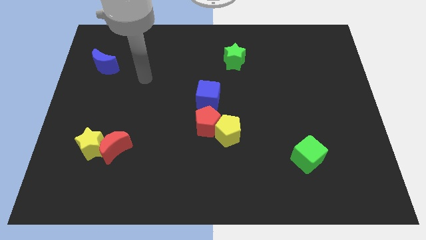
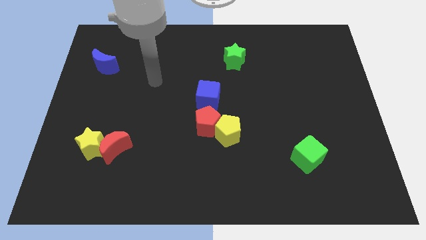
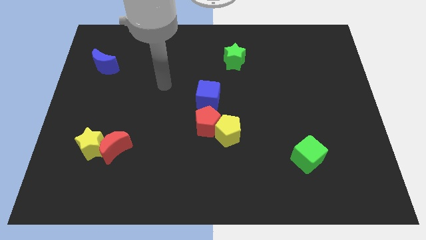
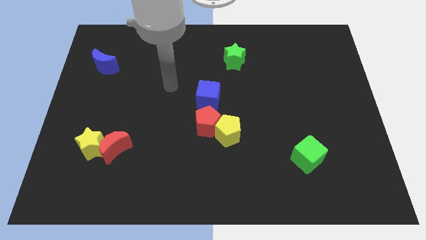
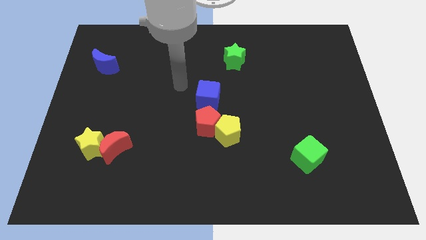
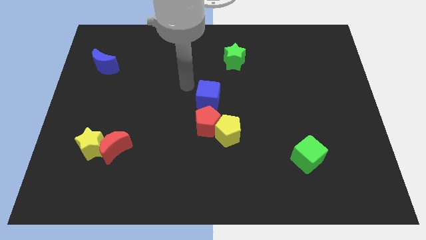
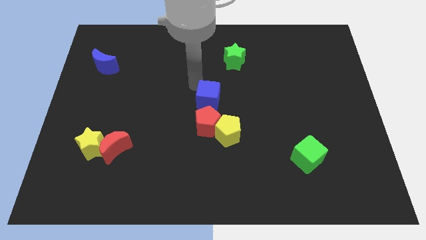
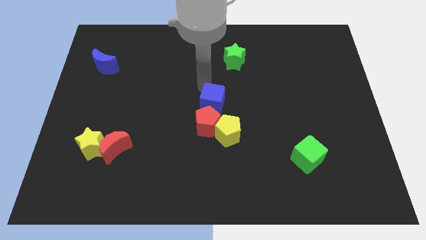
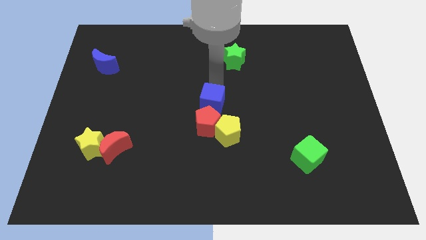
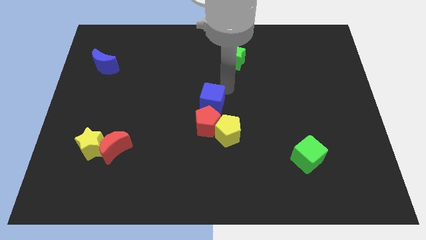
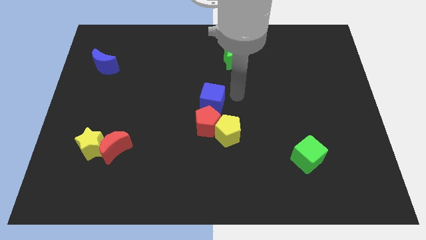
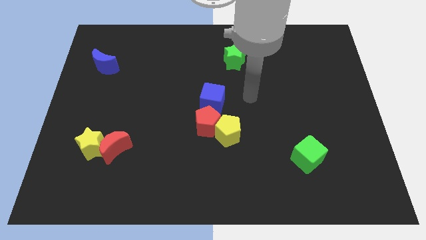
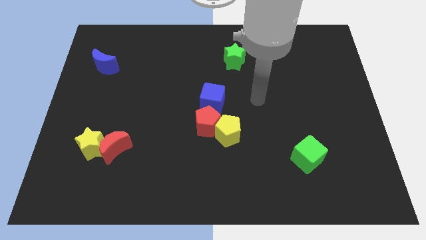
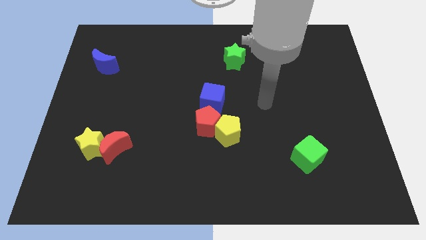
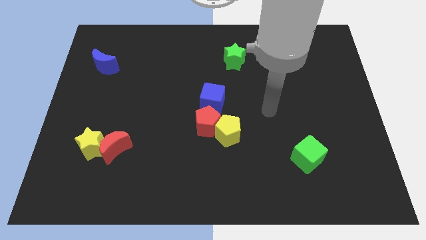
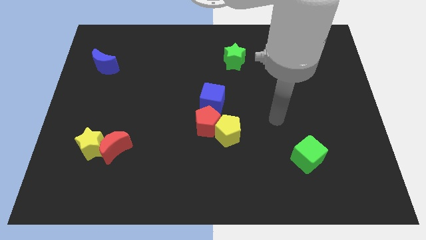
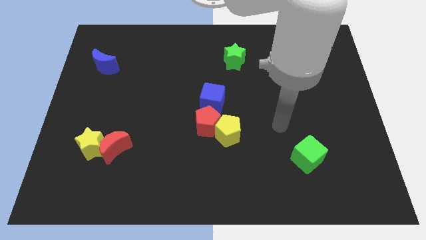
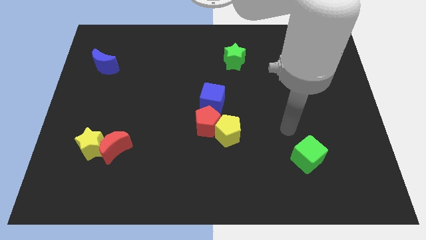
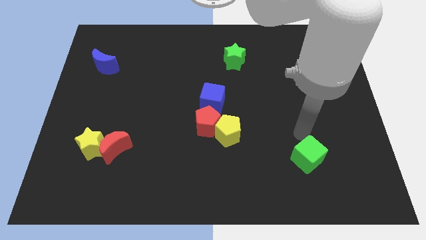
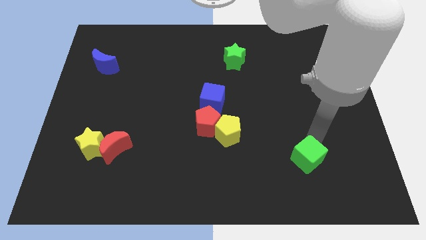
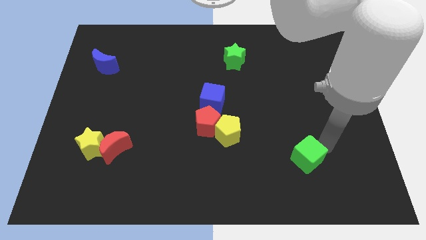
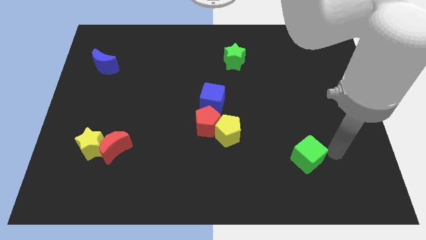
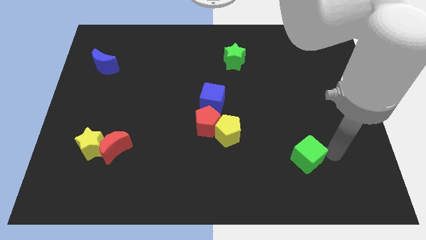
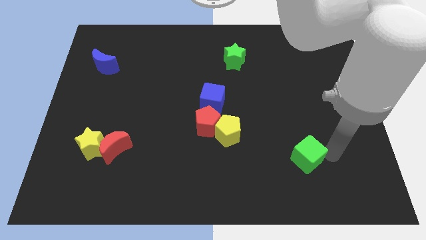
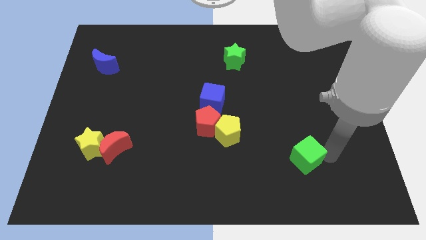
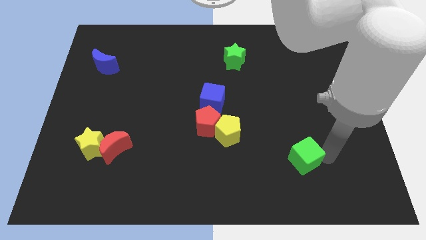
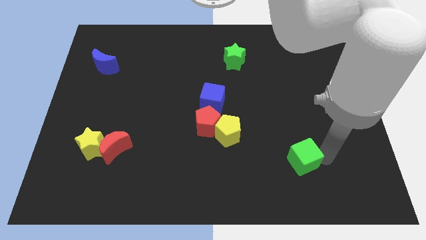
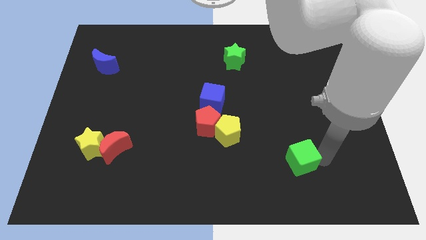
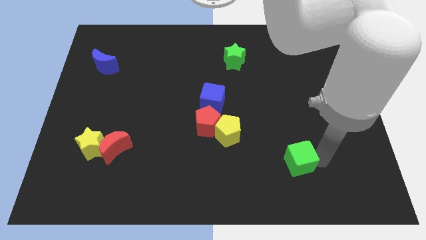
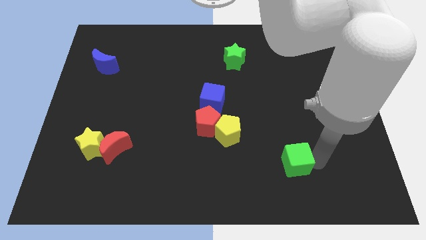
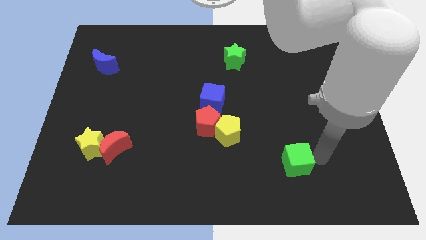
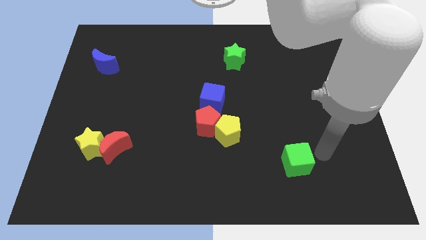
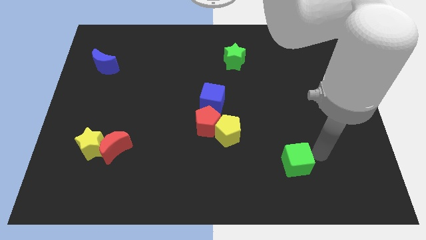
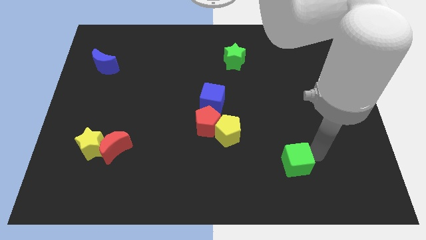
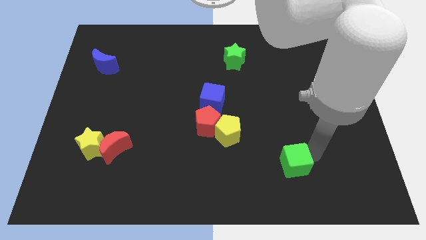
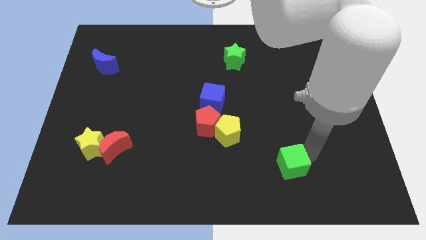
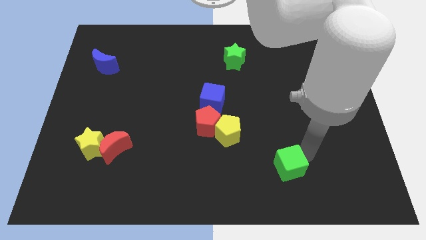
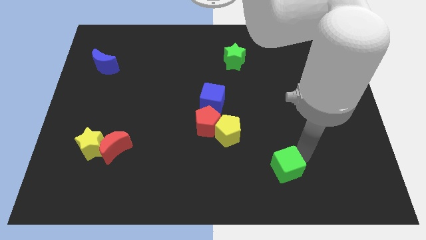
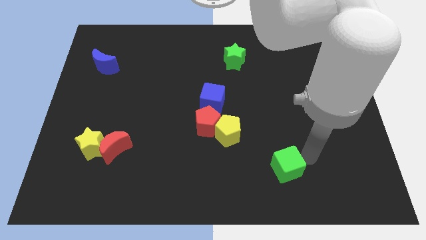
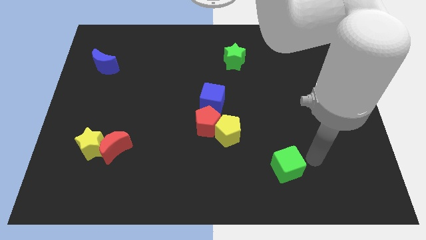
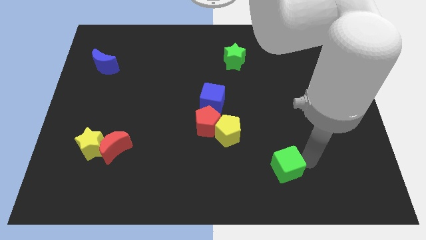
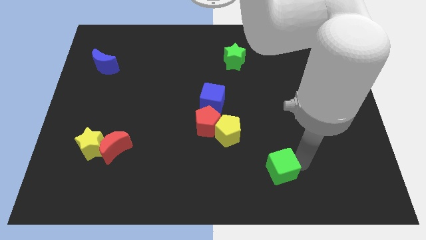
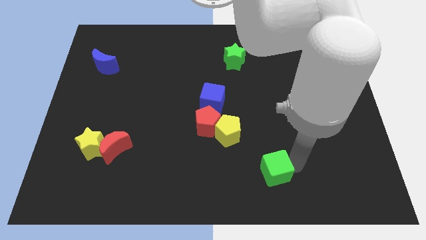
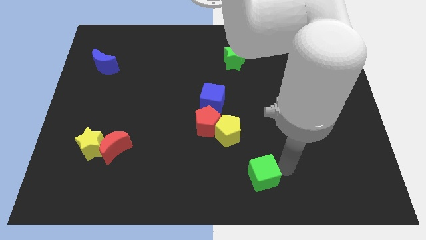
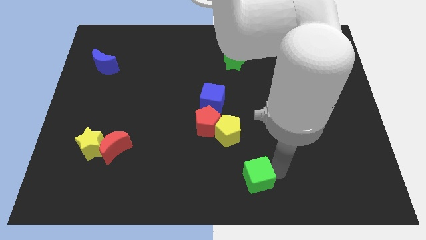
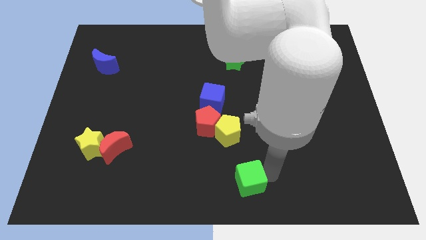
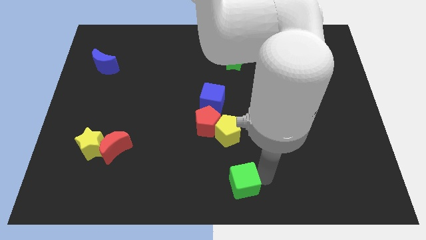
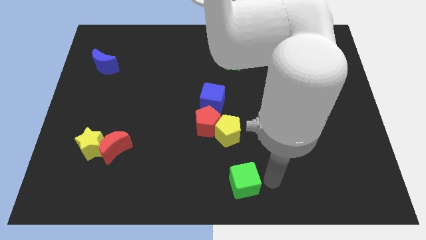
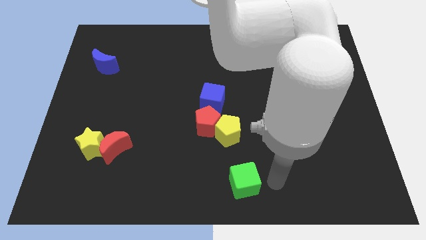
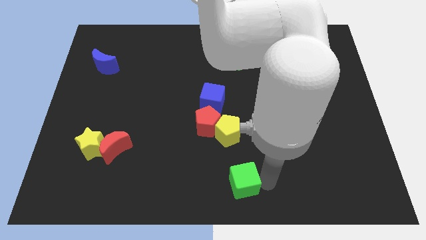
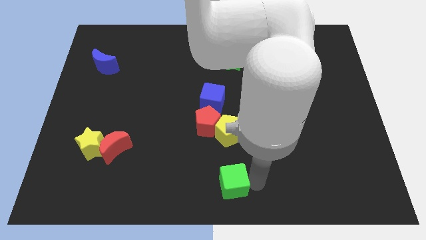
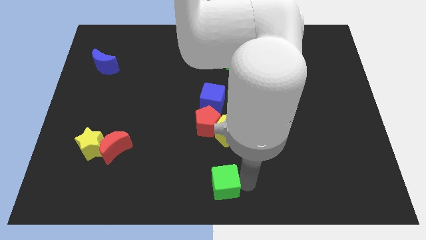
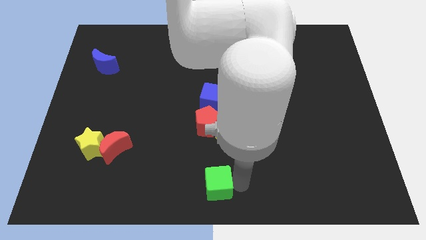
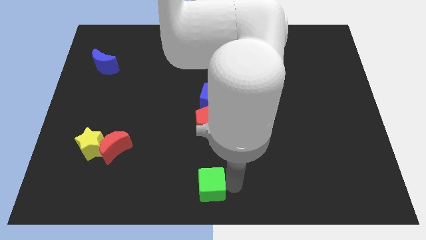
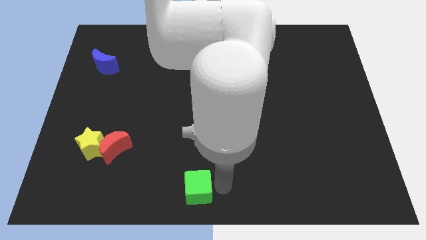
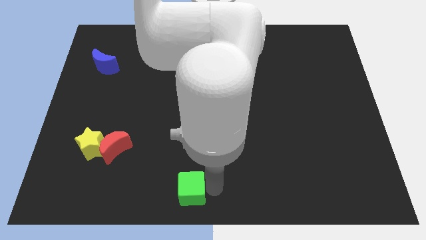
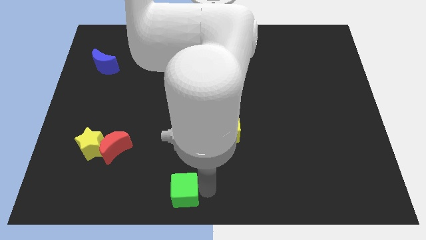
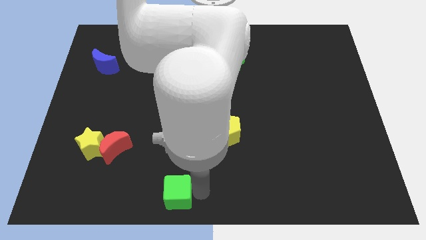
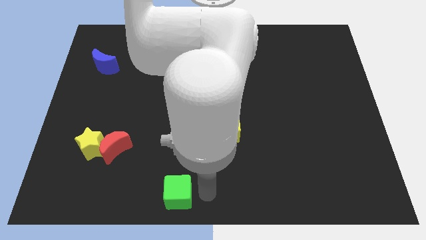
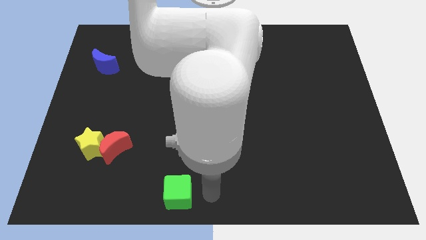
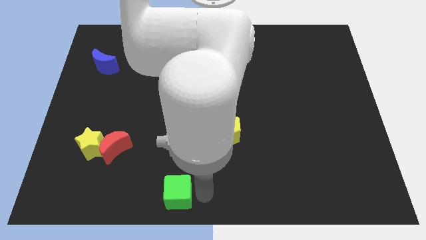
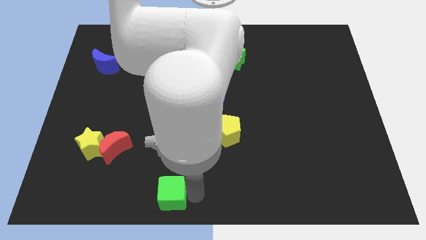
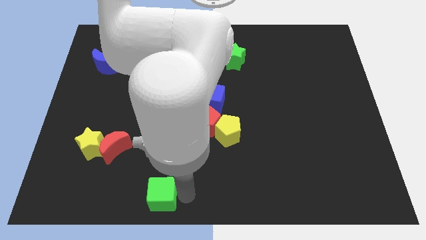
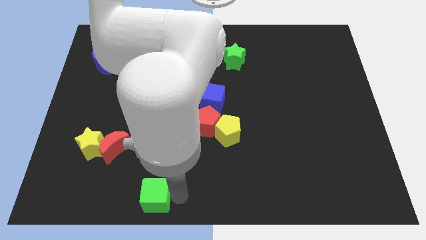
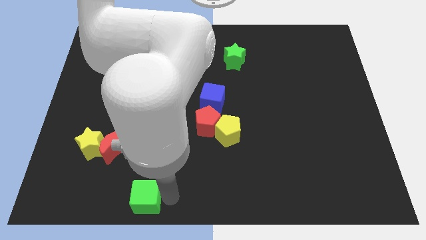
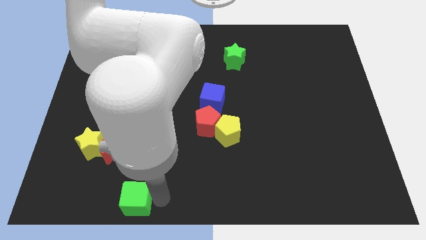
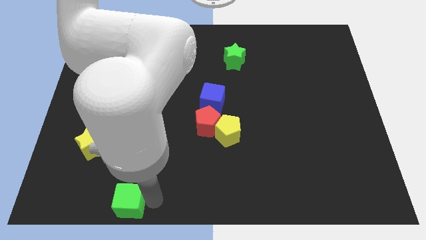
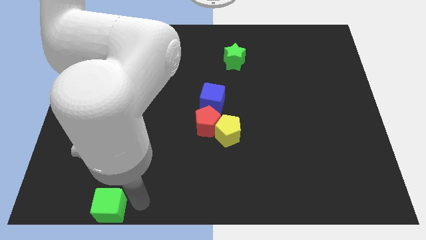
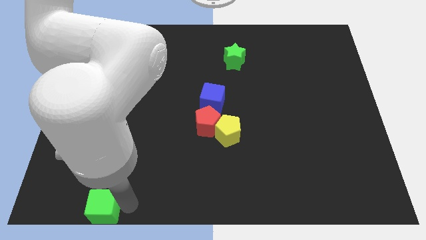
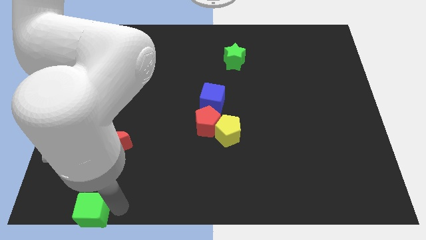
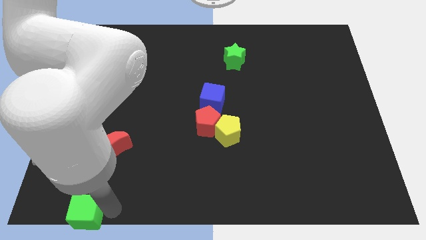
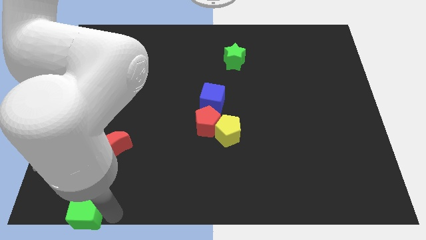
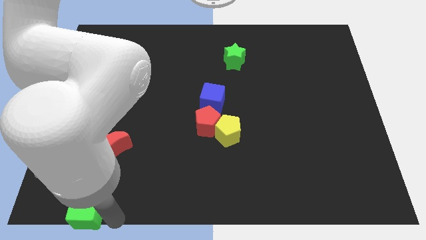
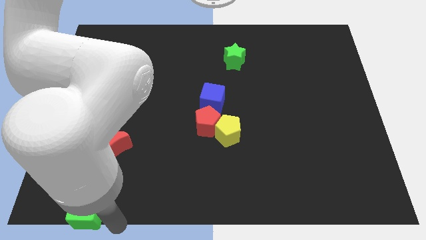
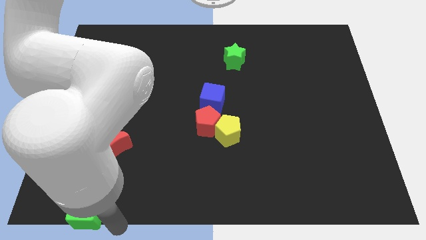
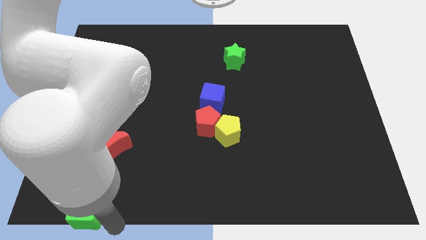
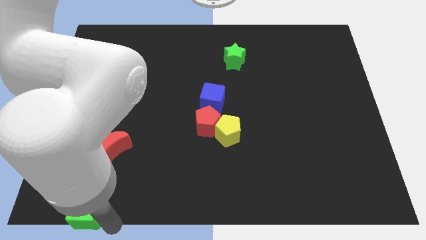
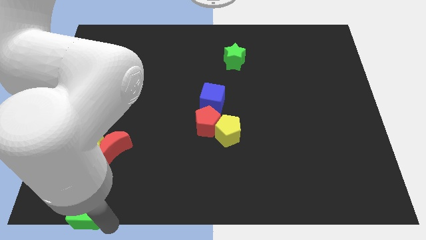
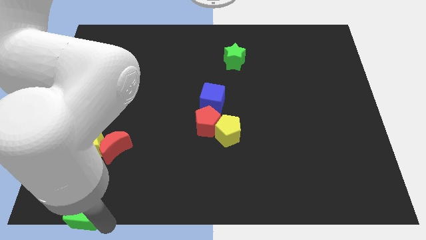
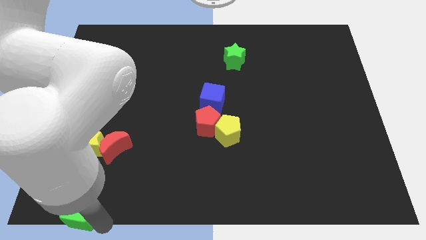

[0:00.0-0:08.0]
slide the green cube to the lower left corner
